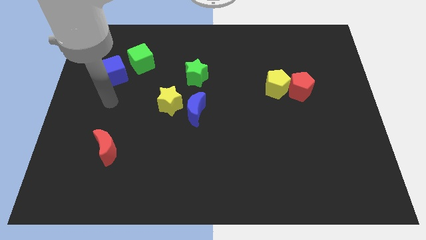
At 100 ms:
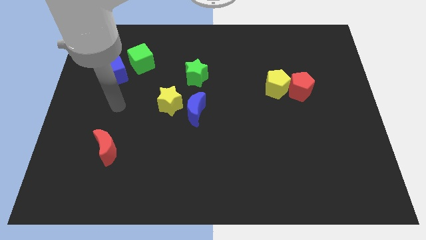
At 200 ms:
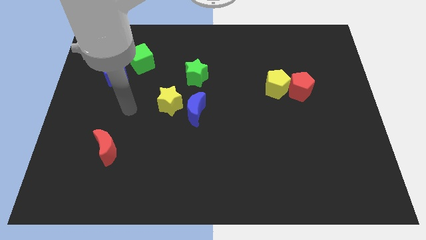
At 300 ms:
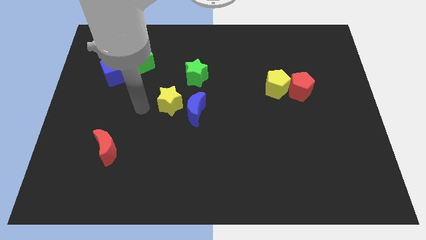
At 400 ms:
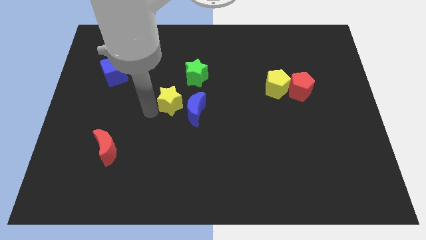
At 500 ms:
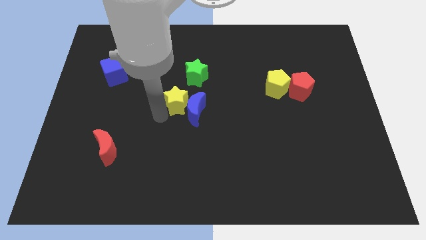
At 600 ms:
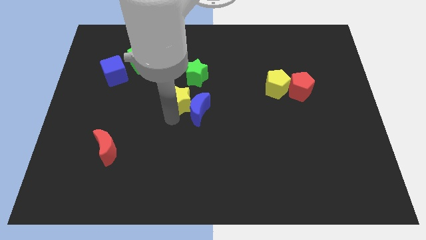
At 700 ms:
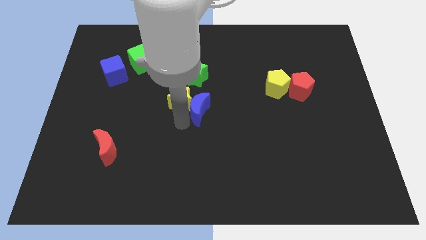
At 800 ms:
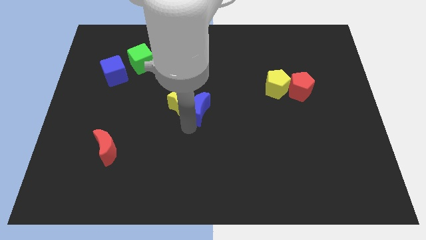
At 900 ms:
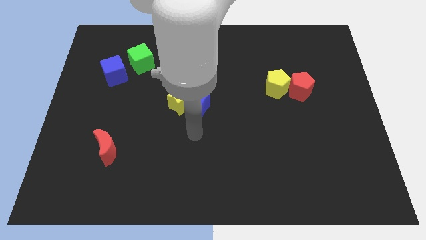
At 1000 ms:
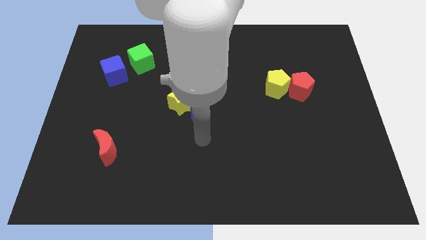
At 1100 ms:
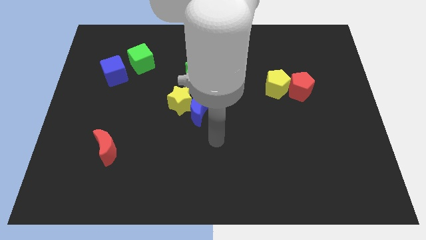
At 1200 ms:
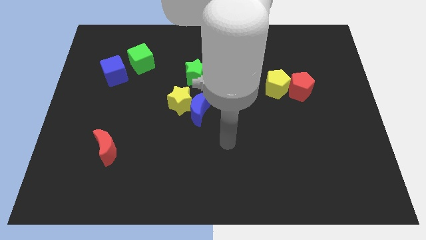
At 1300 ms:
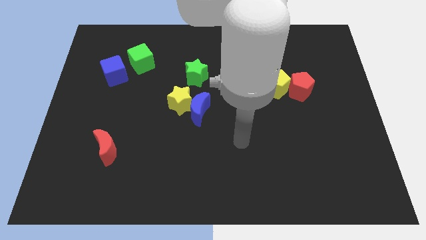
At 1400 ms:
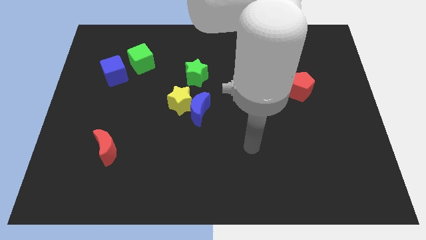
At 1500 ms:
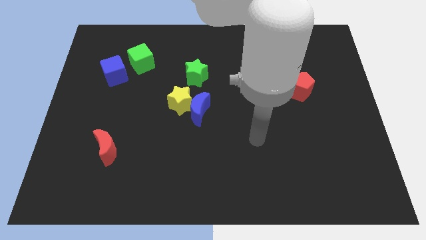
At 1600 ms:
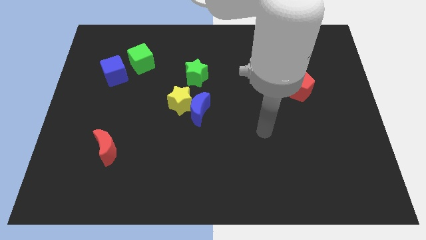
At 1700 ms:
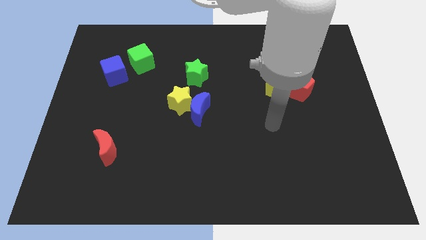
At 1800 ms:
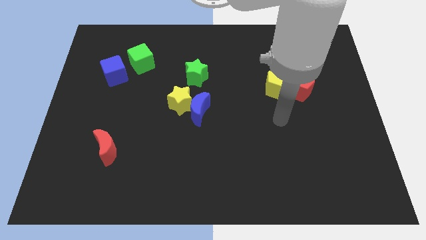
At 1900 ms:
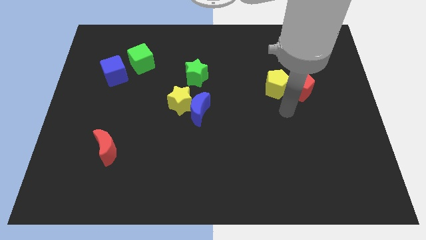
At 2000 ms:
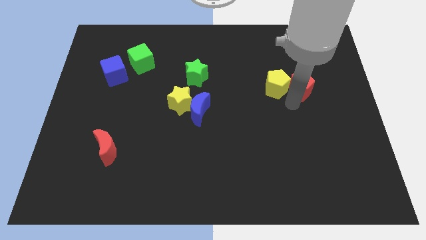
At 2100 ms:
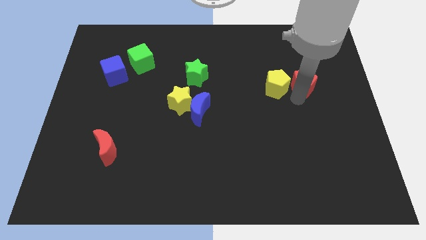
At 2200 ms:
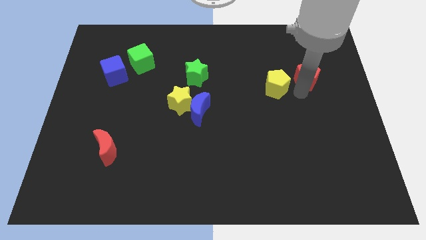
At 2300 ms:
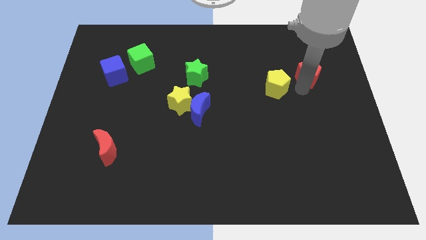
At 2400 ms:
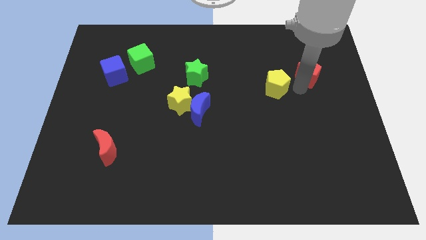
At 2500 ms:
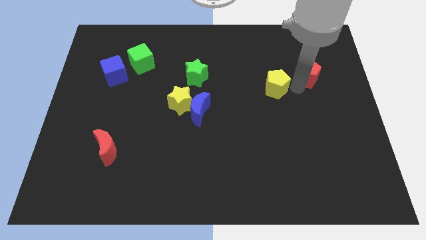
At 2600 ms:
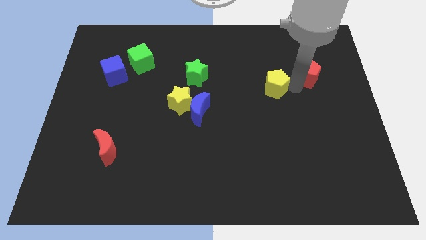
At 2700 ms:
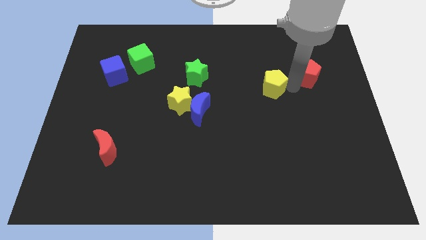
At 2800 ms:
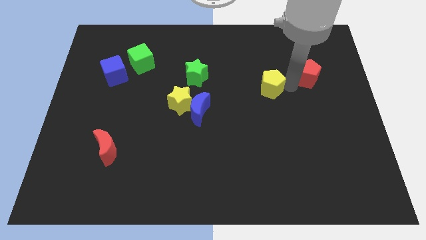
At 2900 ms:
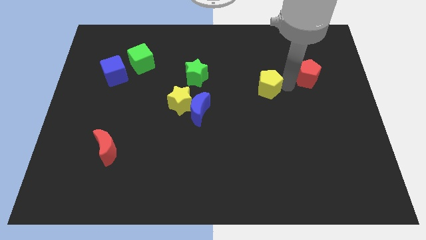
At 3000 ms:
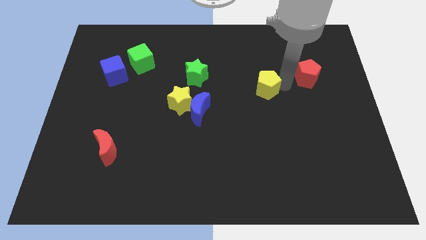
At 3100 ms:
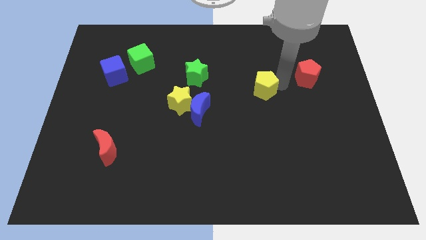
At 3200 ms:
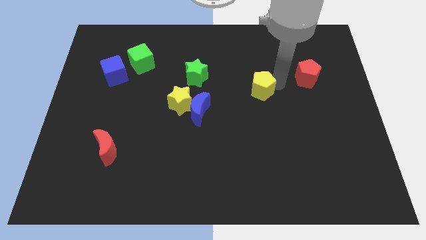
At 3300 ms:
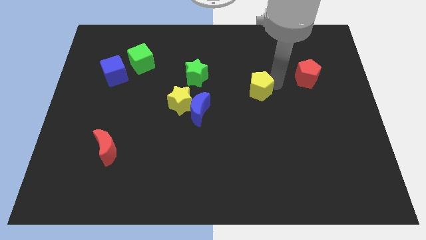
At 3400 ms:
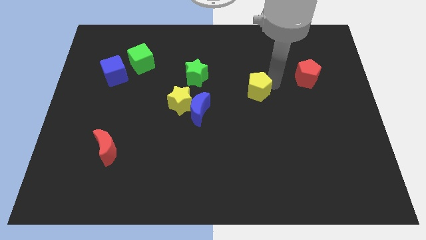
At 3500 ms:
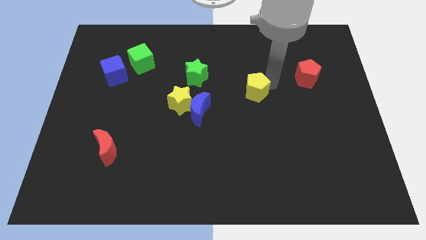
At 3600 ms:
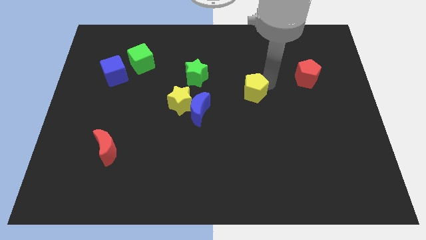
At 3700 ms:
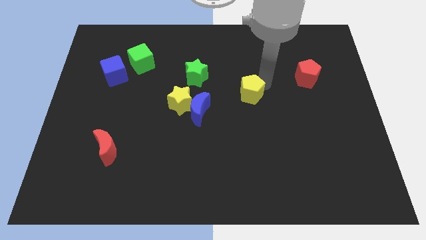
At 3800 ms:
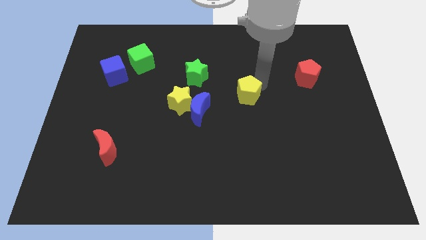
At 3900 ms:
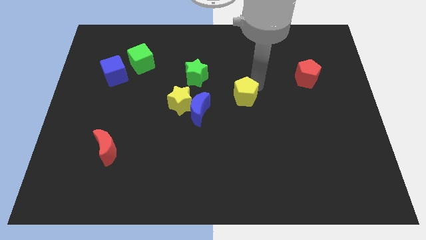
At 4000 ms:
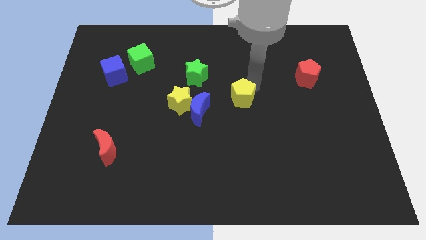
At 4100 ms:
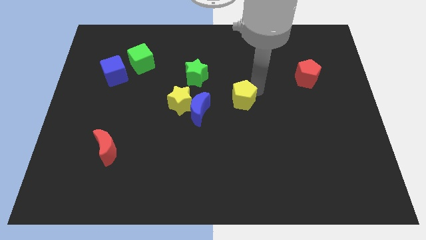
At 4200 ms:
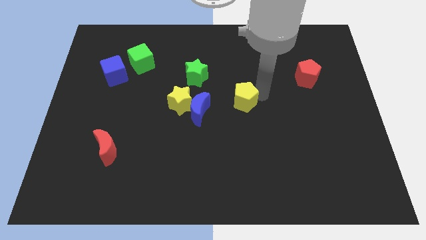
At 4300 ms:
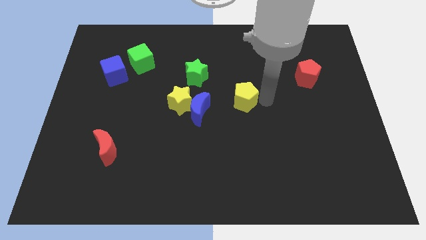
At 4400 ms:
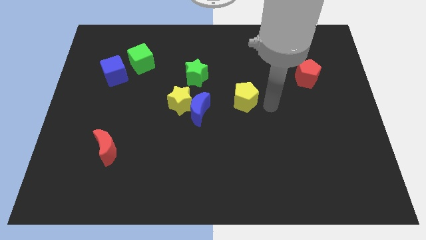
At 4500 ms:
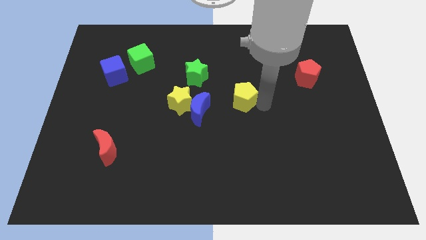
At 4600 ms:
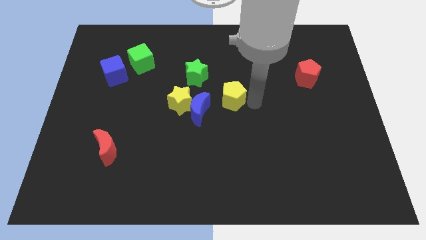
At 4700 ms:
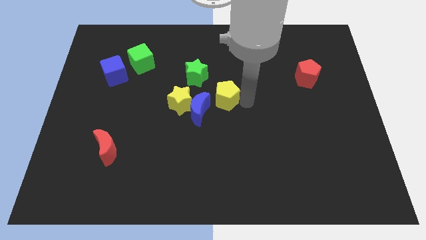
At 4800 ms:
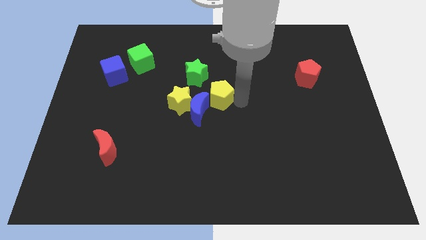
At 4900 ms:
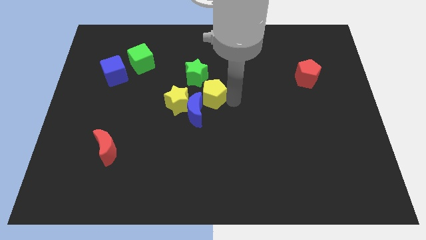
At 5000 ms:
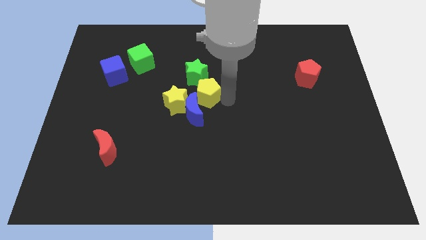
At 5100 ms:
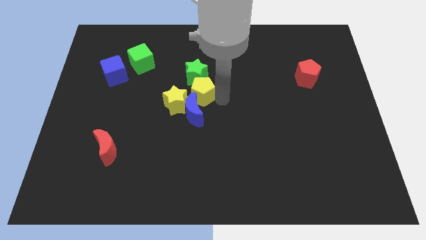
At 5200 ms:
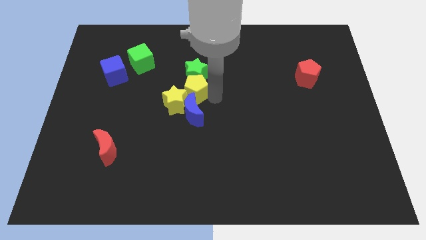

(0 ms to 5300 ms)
move the yellow pentagon left

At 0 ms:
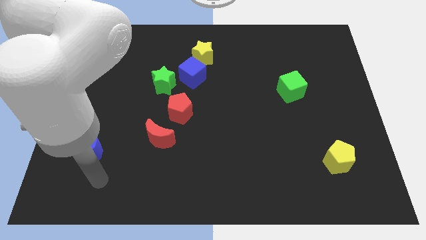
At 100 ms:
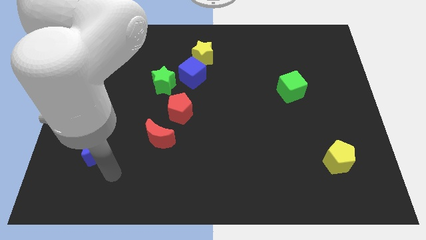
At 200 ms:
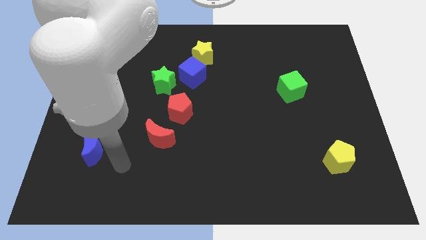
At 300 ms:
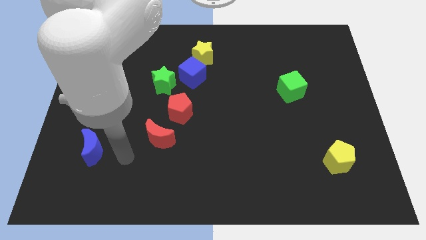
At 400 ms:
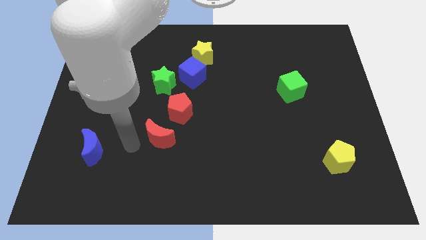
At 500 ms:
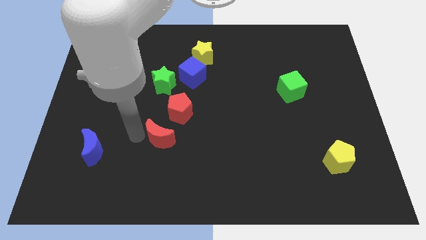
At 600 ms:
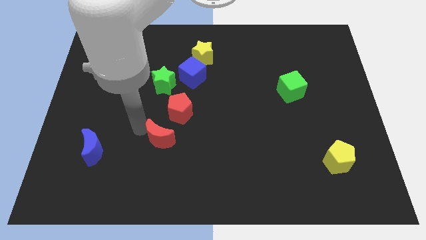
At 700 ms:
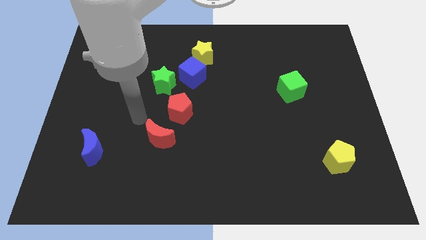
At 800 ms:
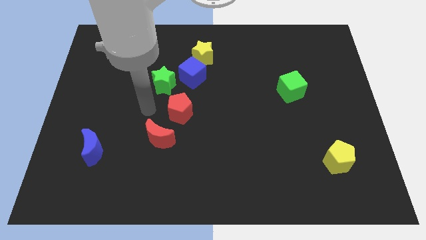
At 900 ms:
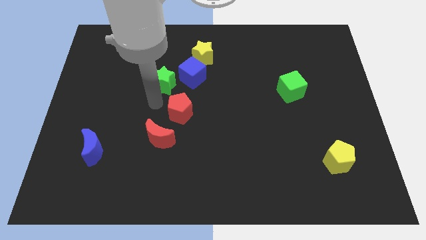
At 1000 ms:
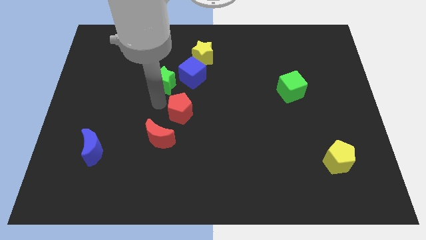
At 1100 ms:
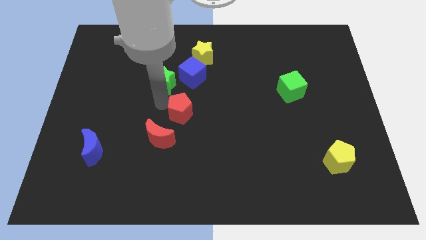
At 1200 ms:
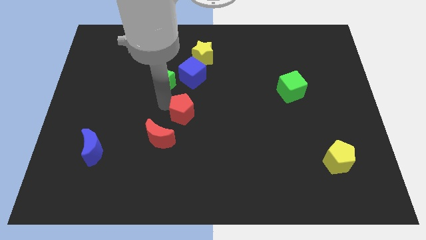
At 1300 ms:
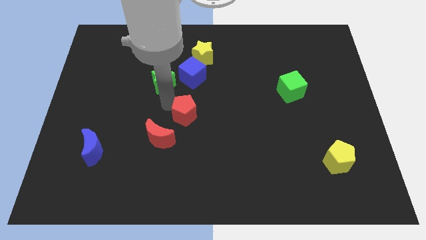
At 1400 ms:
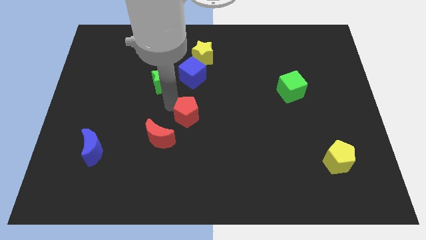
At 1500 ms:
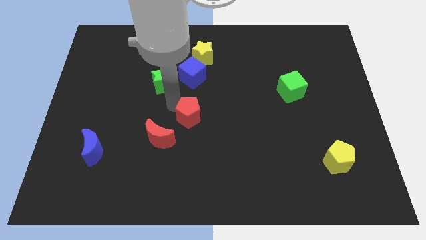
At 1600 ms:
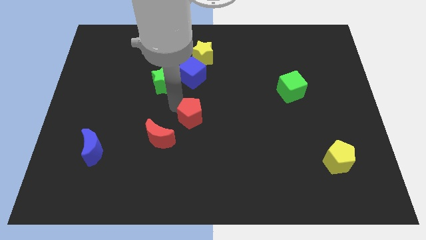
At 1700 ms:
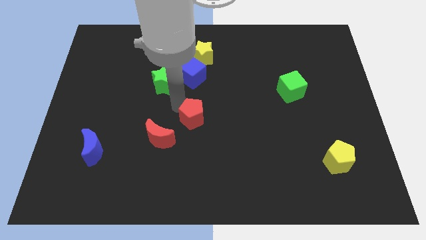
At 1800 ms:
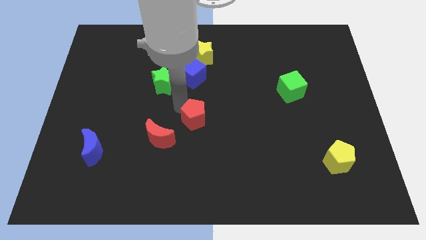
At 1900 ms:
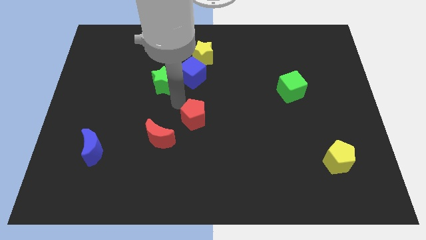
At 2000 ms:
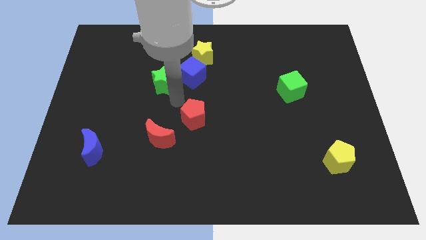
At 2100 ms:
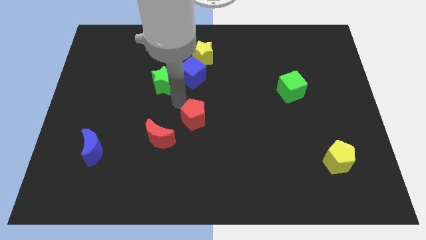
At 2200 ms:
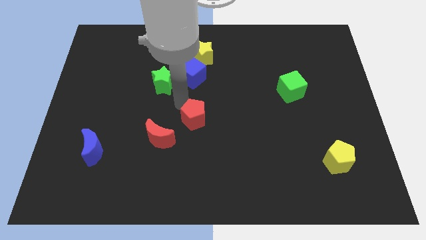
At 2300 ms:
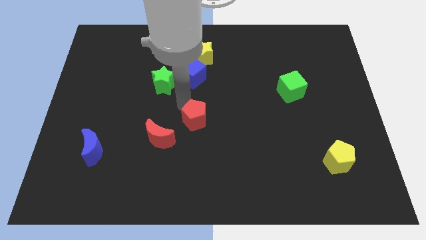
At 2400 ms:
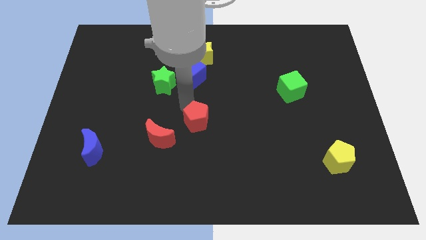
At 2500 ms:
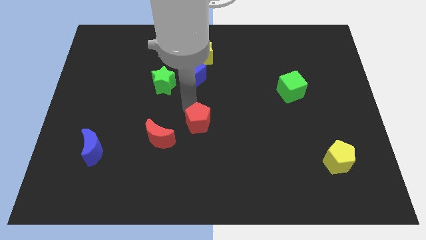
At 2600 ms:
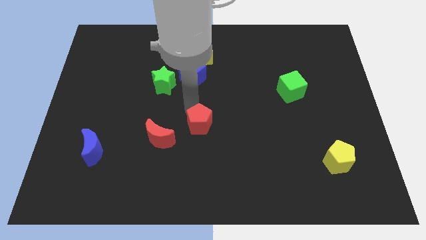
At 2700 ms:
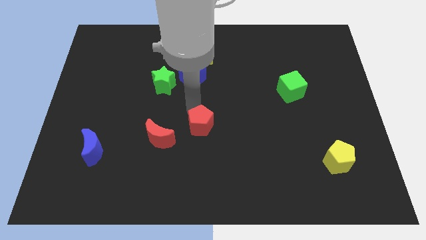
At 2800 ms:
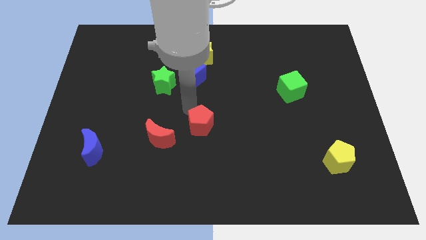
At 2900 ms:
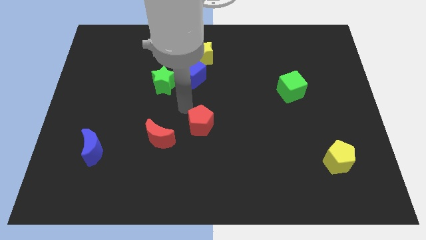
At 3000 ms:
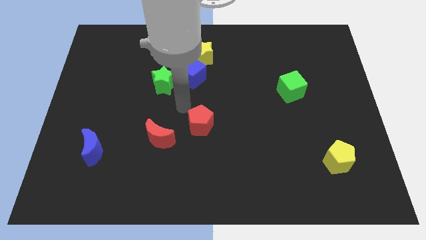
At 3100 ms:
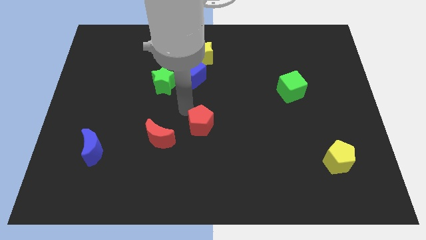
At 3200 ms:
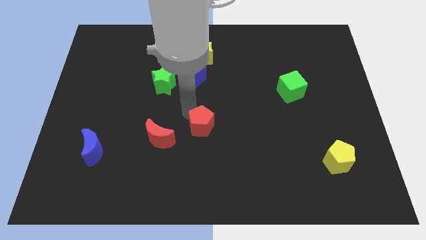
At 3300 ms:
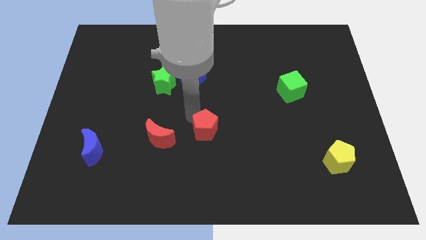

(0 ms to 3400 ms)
move the red pentagon diagonally down and right slightly
